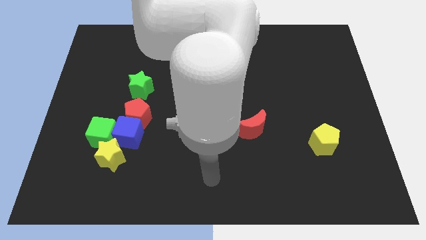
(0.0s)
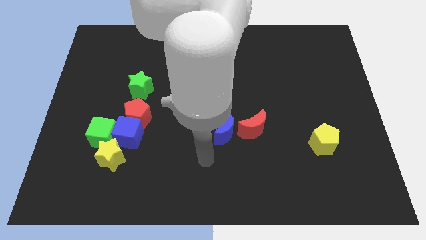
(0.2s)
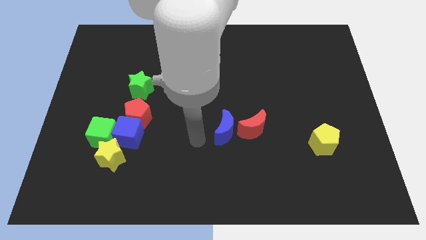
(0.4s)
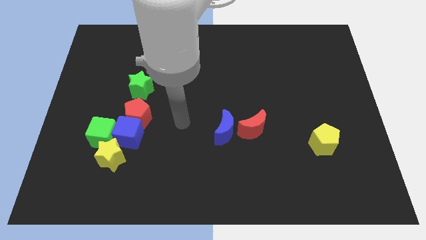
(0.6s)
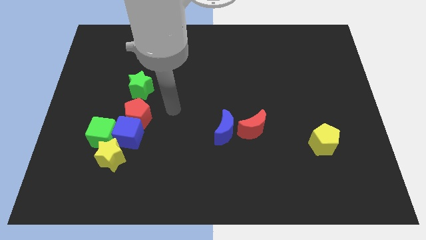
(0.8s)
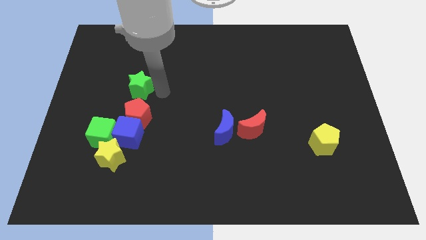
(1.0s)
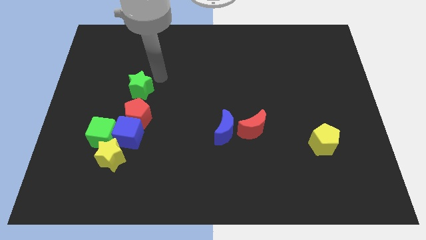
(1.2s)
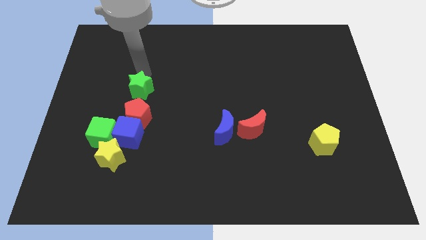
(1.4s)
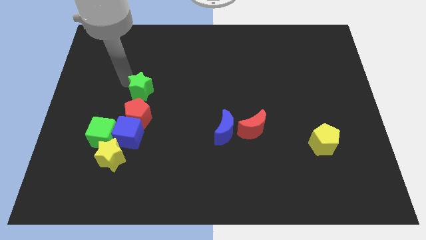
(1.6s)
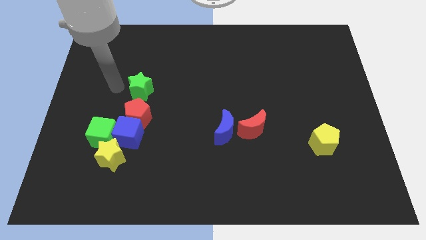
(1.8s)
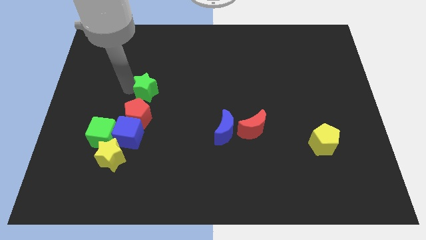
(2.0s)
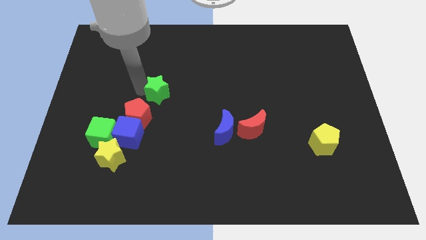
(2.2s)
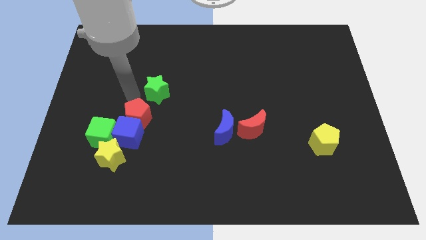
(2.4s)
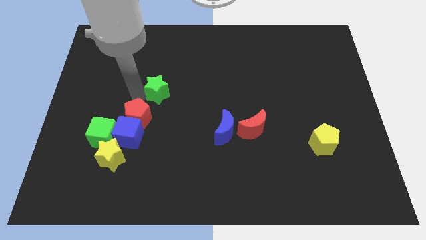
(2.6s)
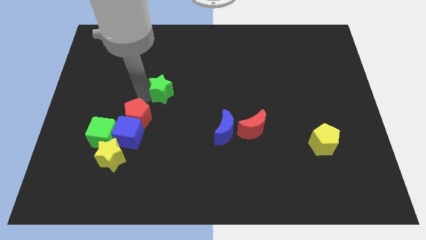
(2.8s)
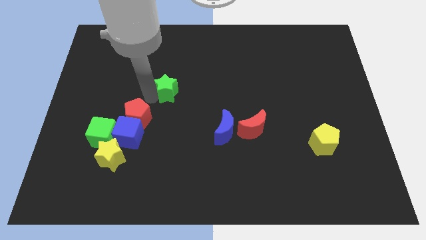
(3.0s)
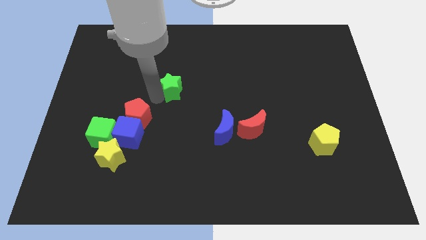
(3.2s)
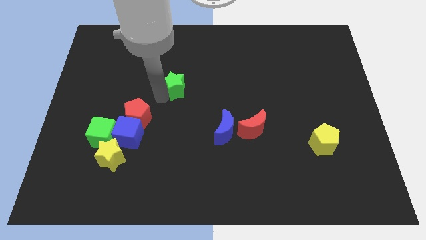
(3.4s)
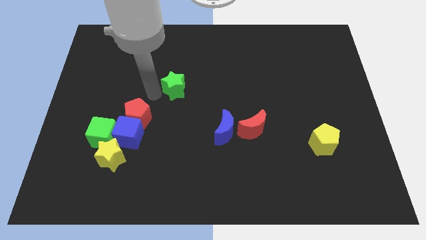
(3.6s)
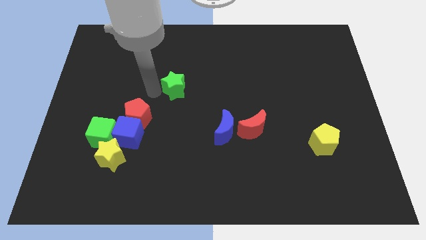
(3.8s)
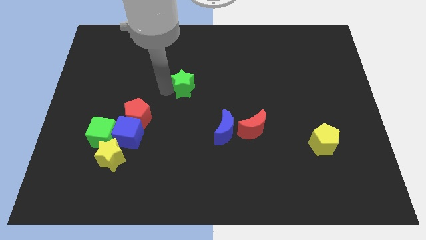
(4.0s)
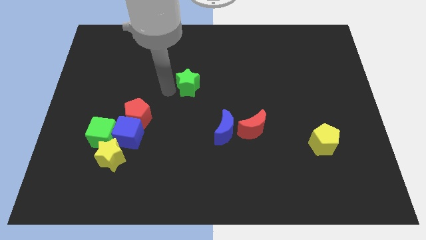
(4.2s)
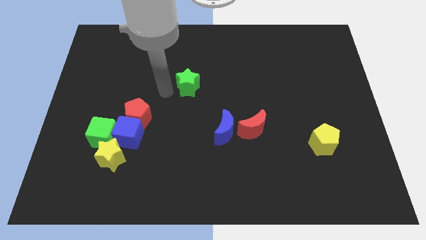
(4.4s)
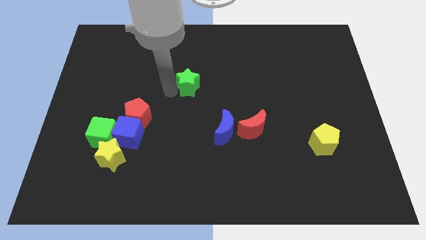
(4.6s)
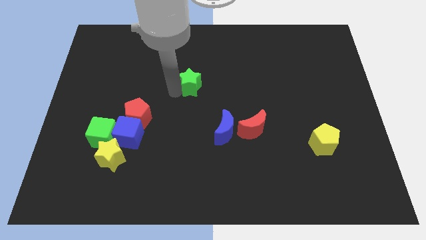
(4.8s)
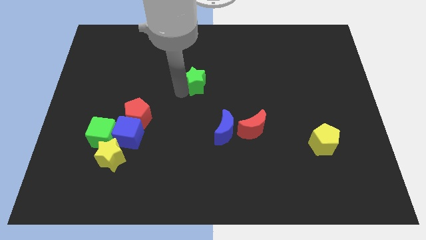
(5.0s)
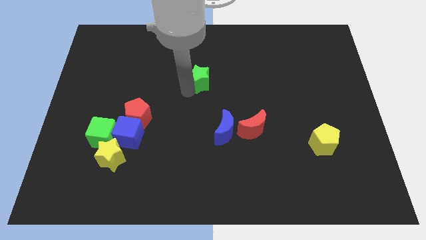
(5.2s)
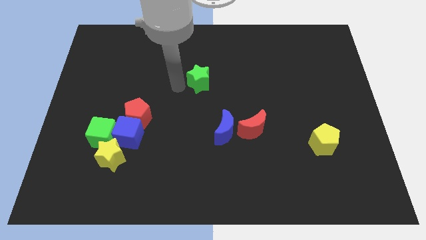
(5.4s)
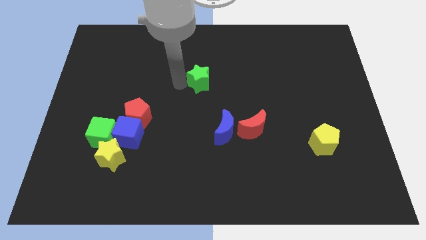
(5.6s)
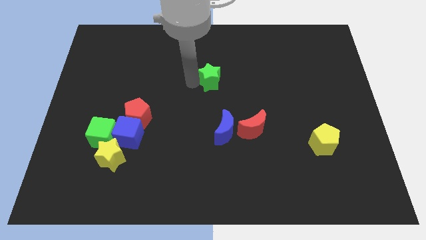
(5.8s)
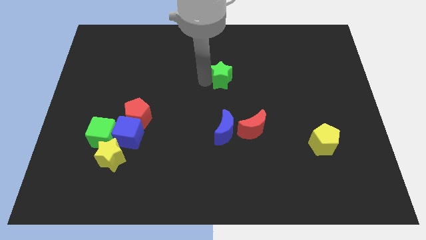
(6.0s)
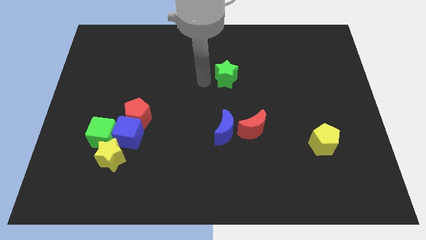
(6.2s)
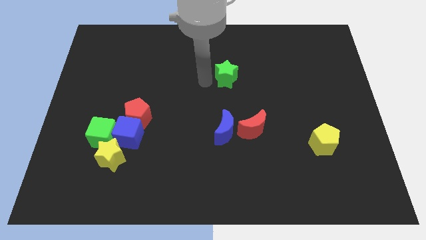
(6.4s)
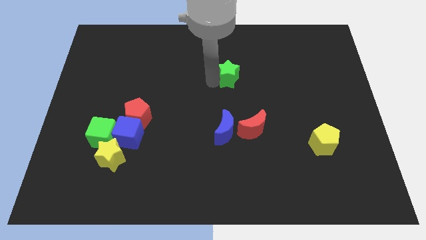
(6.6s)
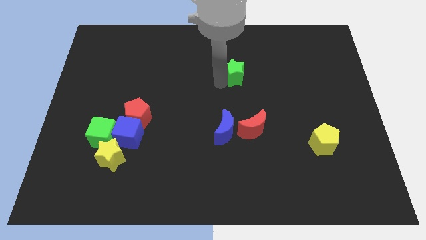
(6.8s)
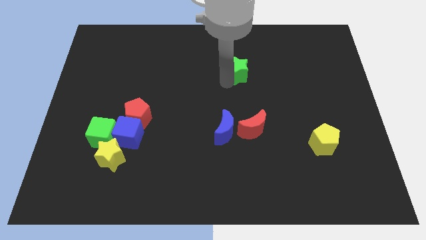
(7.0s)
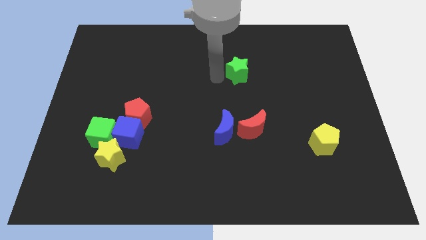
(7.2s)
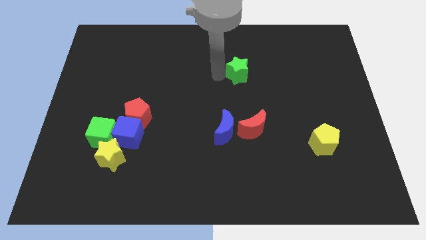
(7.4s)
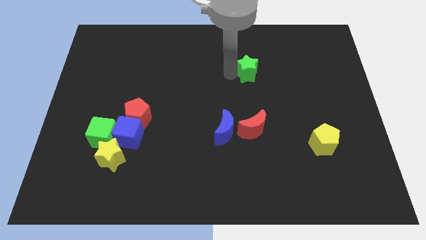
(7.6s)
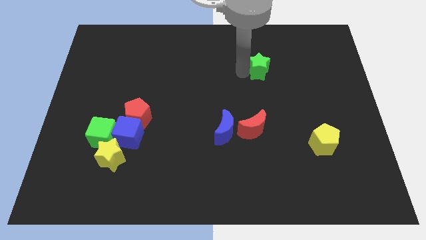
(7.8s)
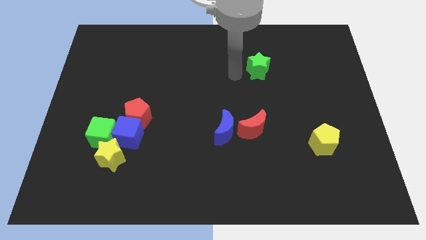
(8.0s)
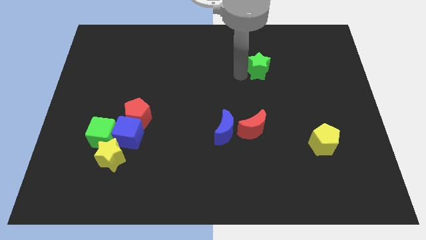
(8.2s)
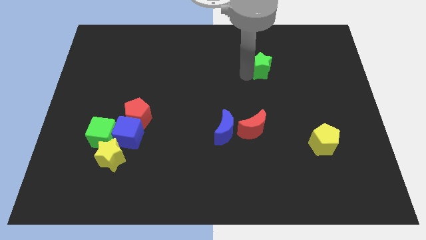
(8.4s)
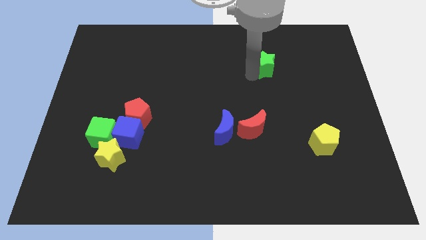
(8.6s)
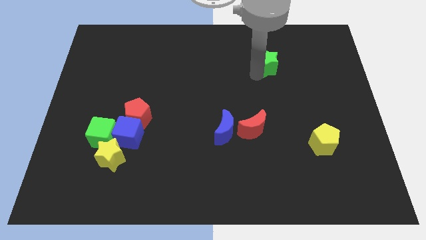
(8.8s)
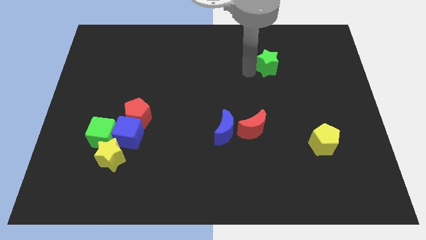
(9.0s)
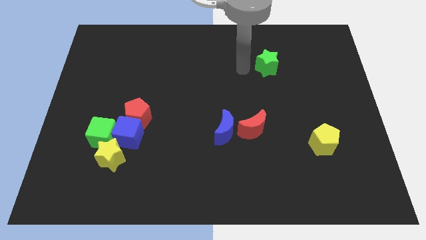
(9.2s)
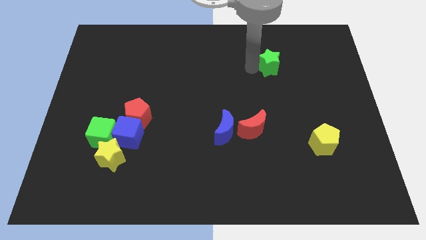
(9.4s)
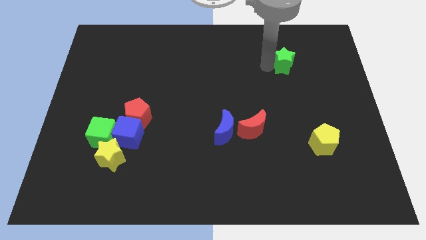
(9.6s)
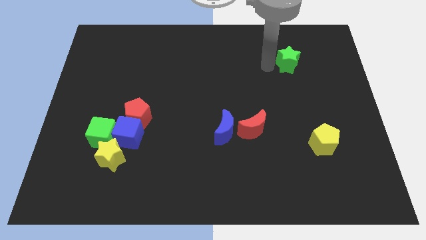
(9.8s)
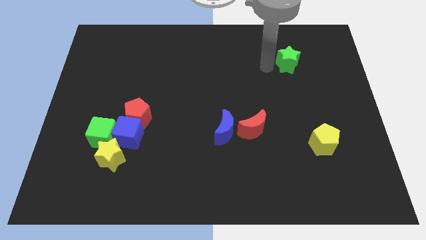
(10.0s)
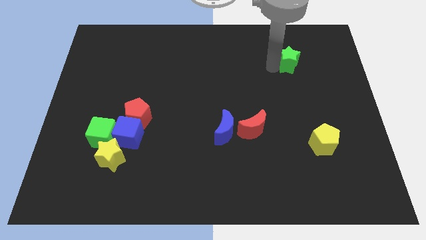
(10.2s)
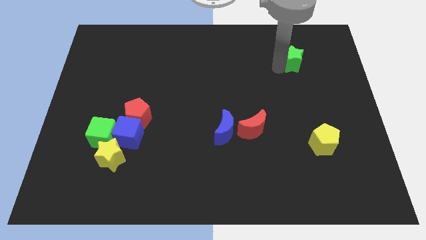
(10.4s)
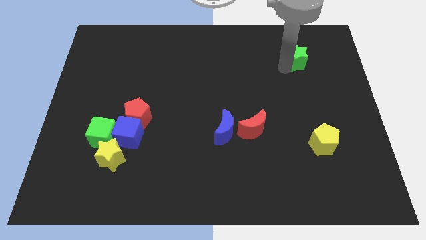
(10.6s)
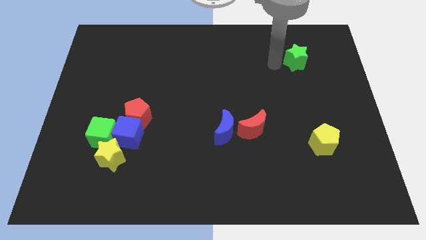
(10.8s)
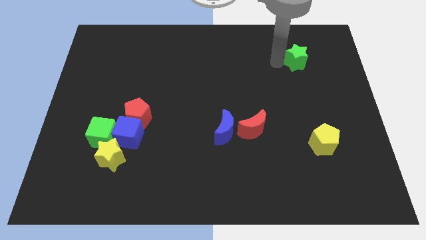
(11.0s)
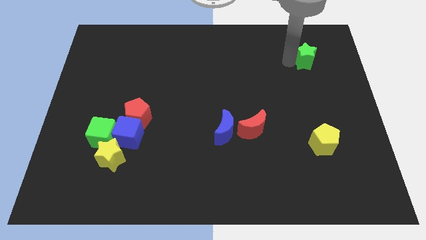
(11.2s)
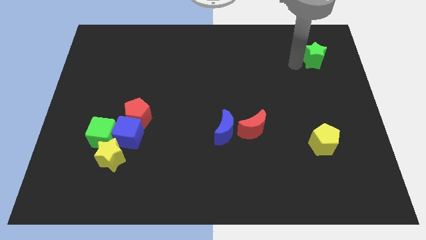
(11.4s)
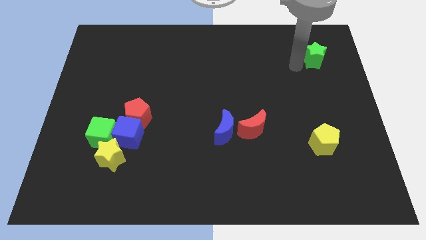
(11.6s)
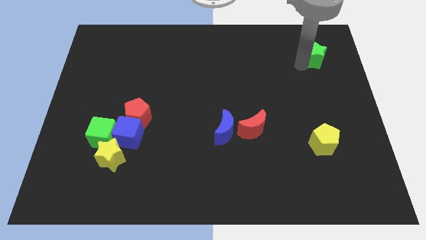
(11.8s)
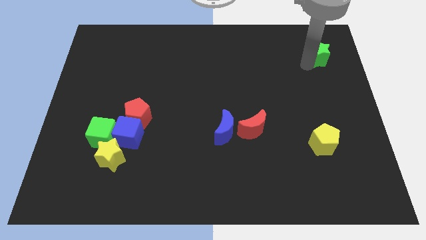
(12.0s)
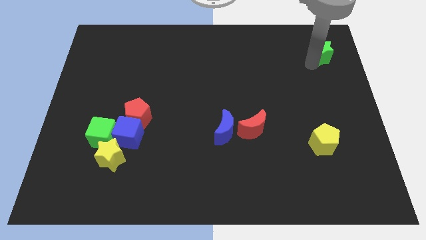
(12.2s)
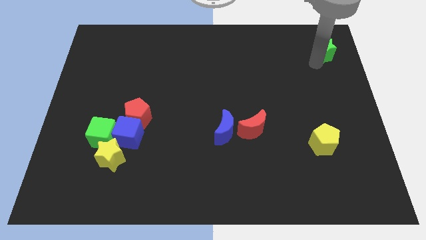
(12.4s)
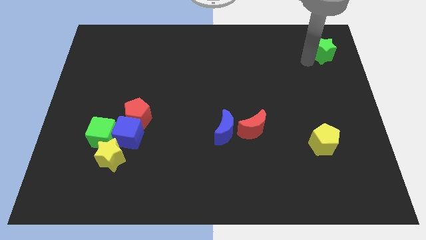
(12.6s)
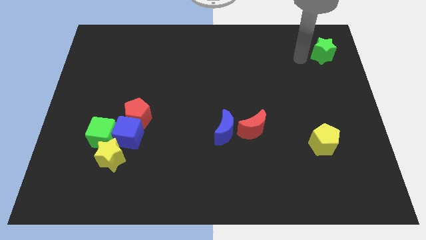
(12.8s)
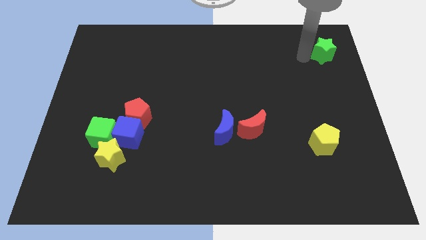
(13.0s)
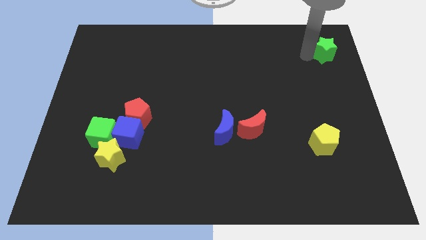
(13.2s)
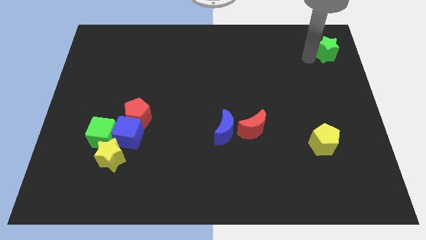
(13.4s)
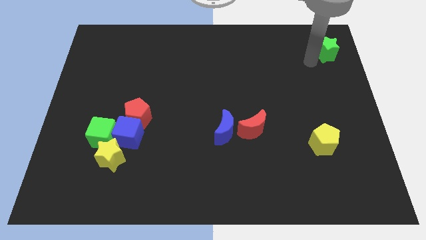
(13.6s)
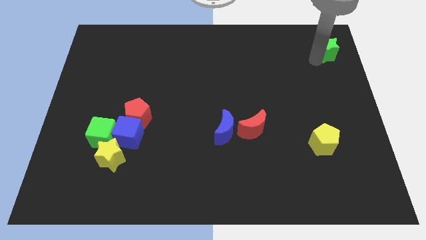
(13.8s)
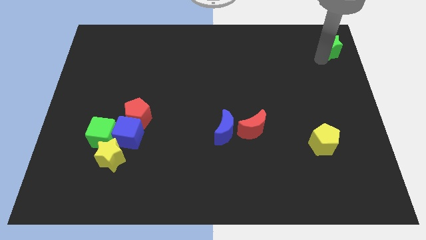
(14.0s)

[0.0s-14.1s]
move the green star to the top right of the board

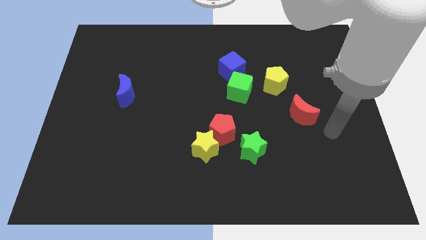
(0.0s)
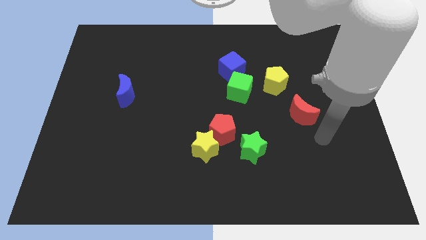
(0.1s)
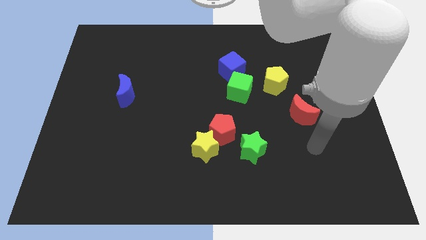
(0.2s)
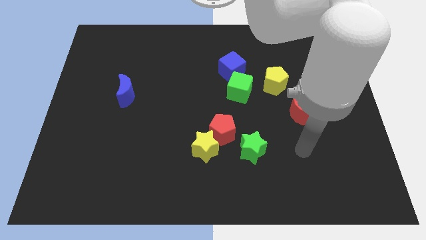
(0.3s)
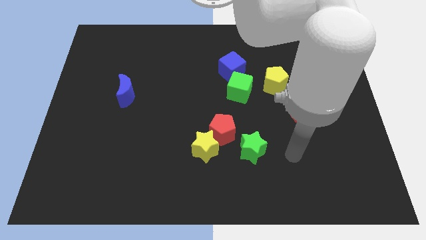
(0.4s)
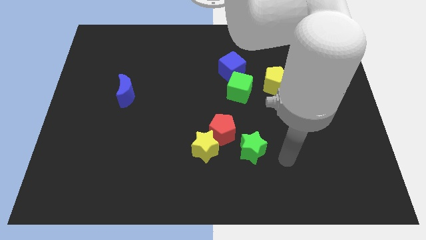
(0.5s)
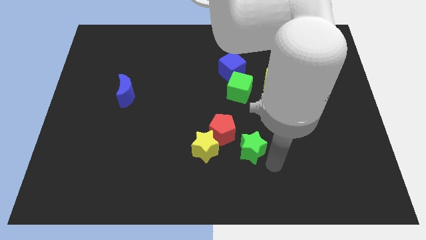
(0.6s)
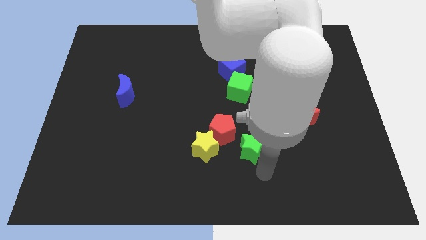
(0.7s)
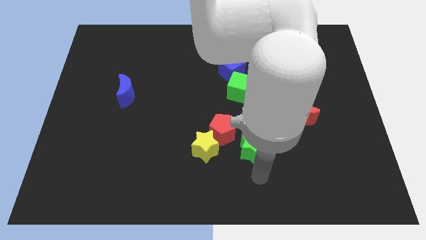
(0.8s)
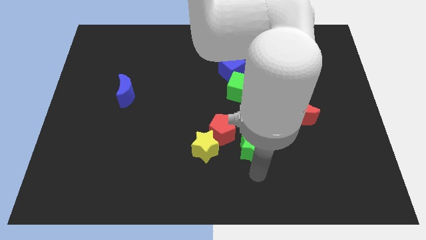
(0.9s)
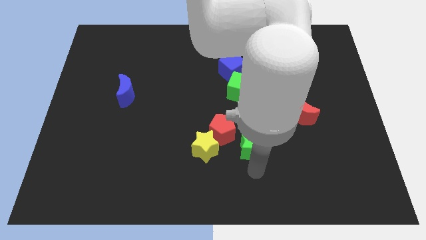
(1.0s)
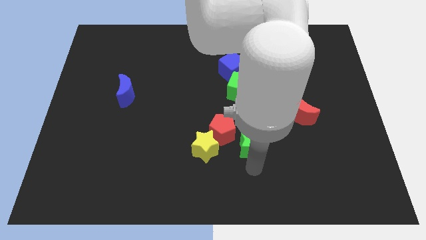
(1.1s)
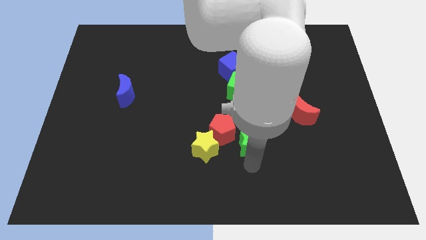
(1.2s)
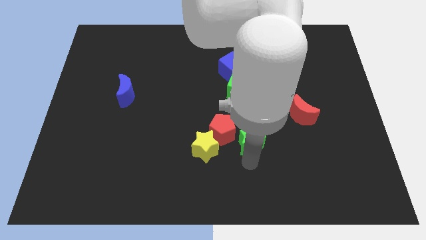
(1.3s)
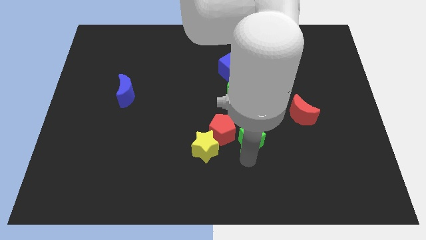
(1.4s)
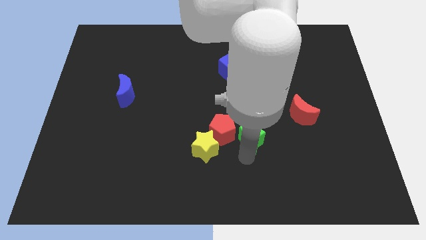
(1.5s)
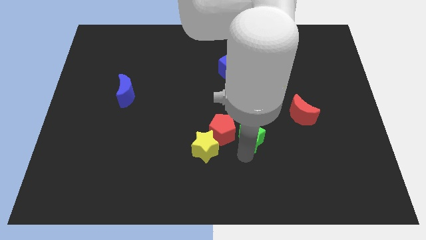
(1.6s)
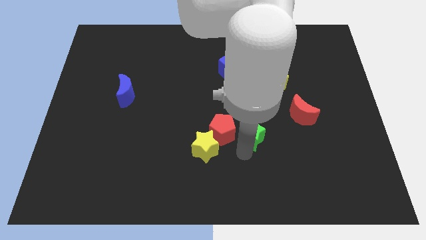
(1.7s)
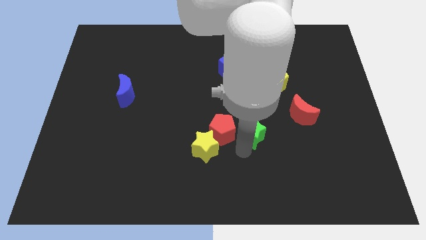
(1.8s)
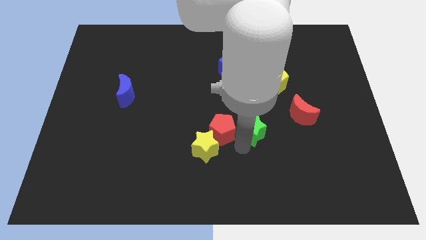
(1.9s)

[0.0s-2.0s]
put the green star to the middle
